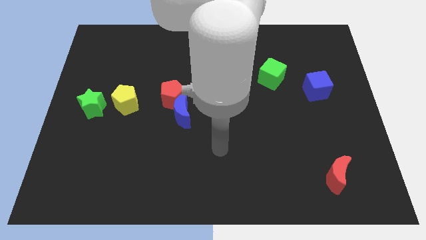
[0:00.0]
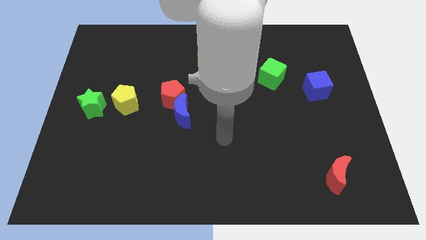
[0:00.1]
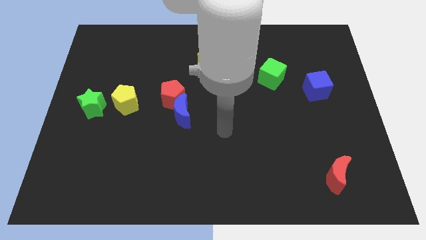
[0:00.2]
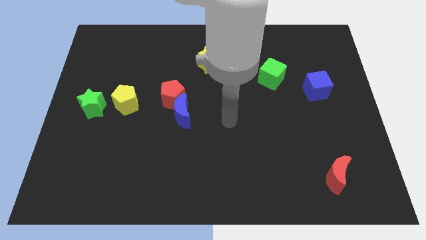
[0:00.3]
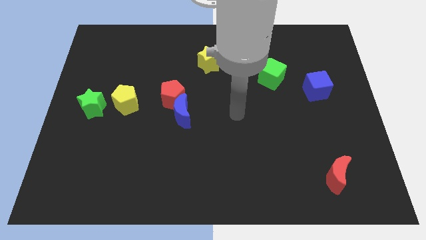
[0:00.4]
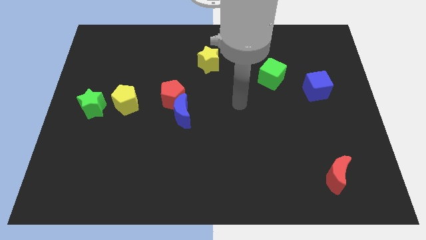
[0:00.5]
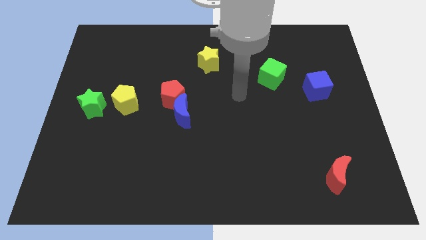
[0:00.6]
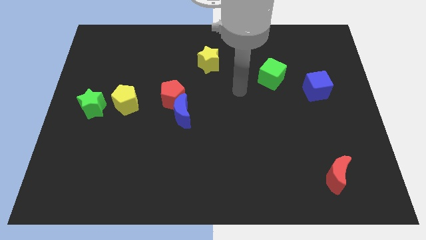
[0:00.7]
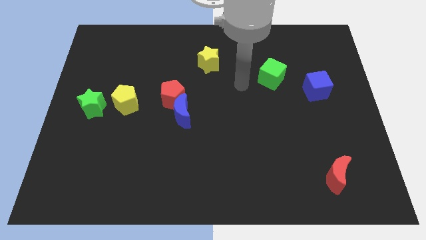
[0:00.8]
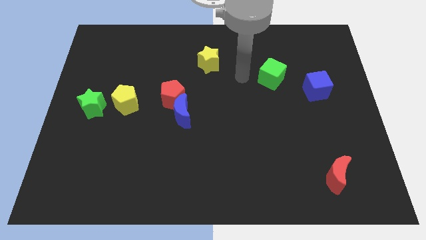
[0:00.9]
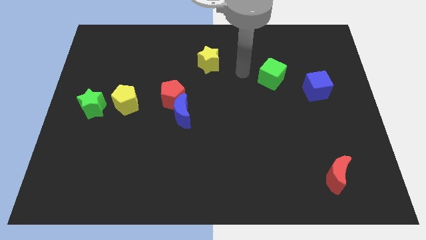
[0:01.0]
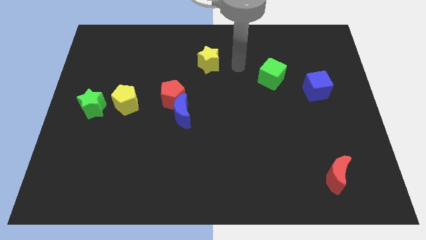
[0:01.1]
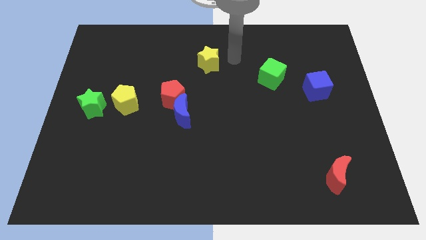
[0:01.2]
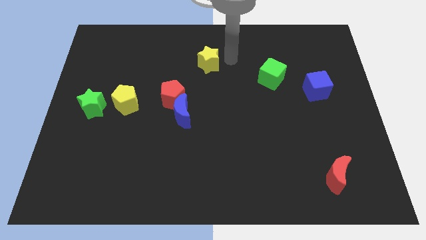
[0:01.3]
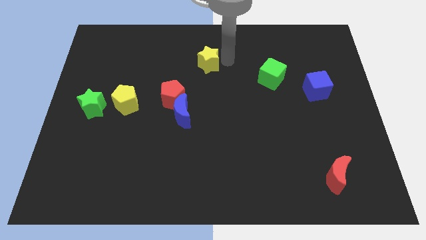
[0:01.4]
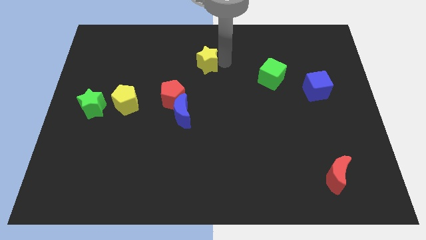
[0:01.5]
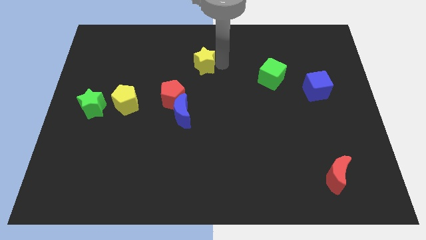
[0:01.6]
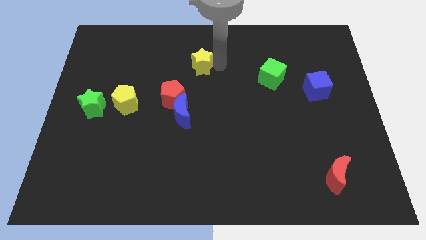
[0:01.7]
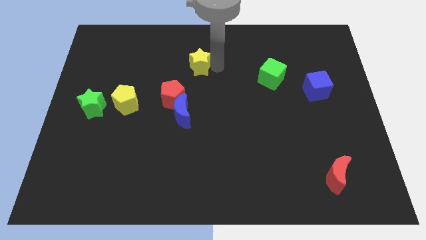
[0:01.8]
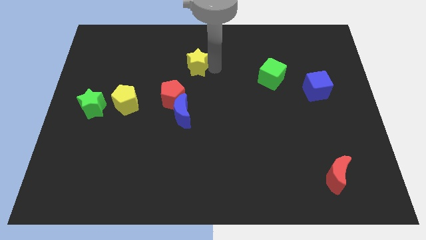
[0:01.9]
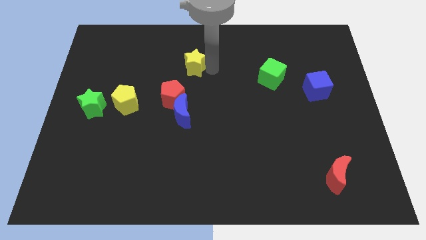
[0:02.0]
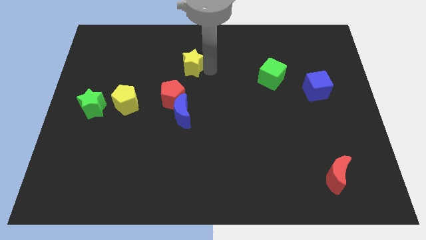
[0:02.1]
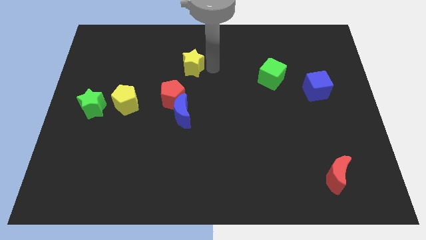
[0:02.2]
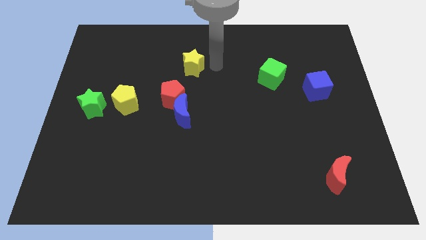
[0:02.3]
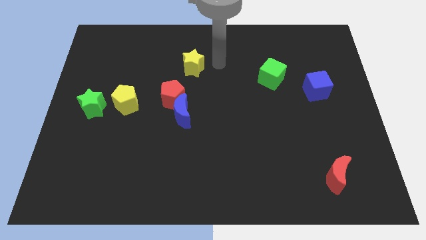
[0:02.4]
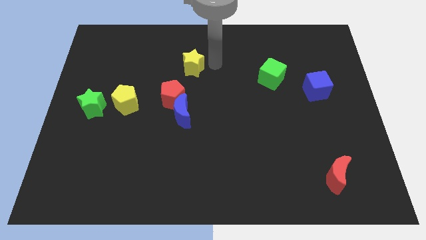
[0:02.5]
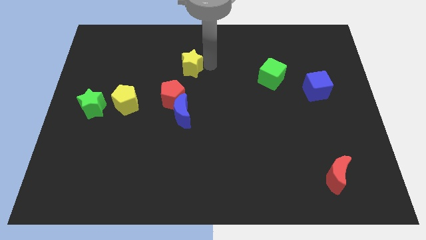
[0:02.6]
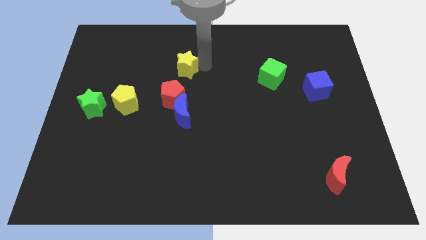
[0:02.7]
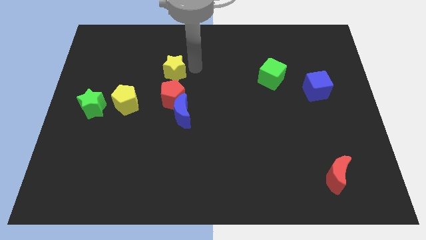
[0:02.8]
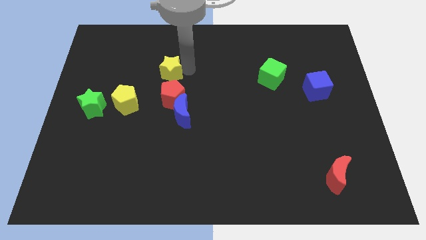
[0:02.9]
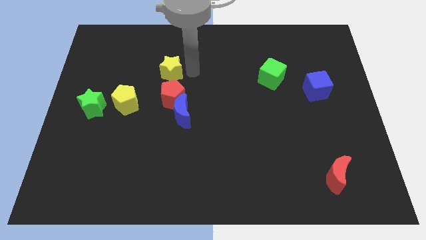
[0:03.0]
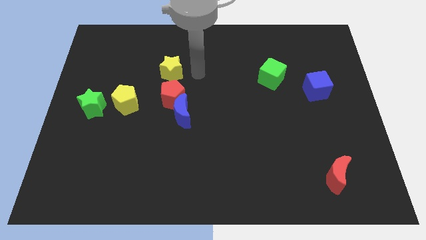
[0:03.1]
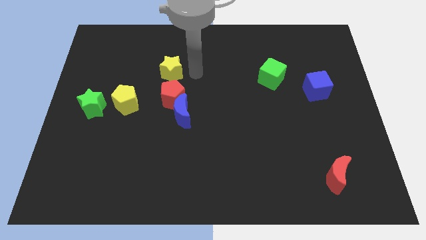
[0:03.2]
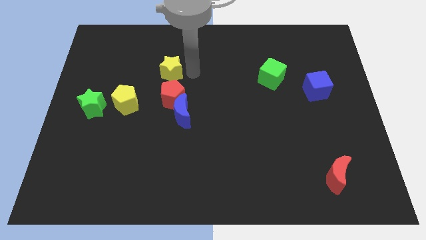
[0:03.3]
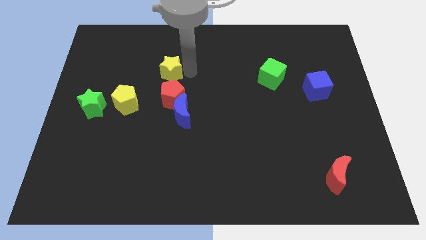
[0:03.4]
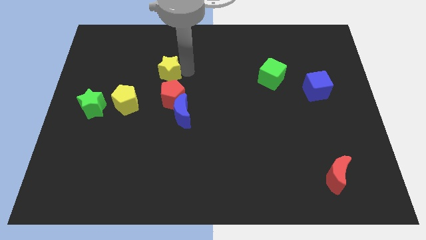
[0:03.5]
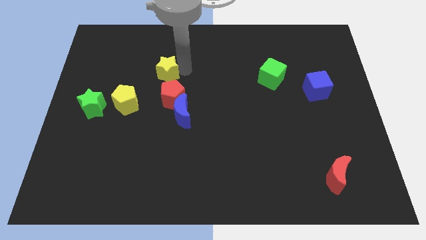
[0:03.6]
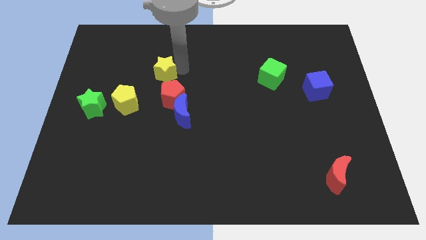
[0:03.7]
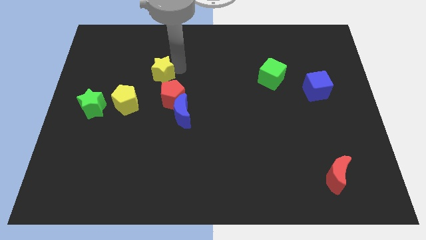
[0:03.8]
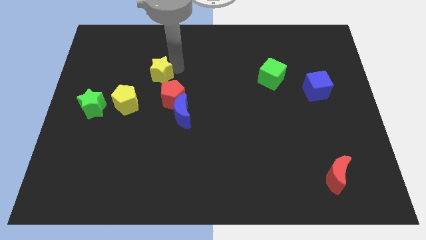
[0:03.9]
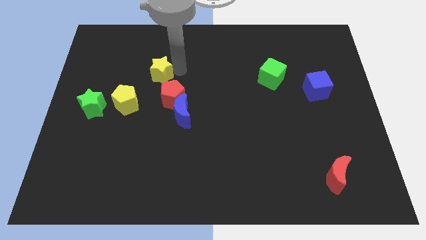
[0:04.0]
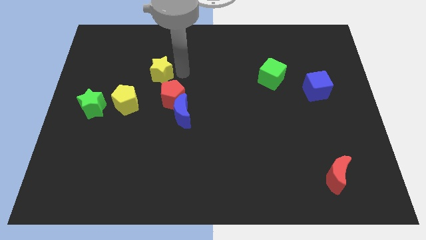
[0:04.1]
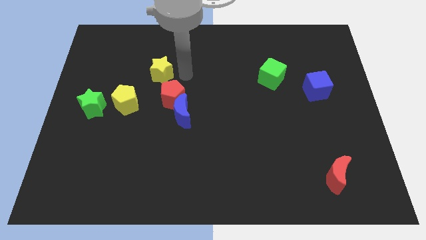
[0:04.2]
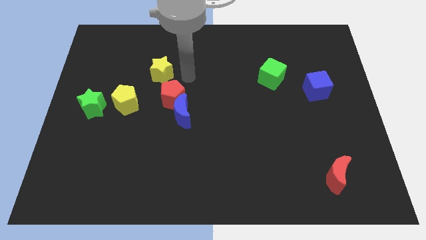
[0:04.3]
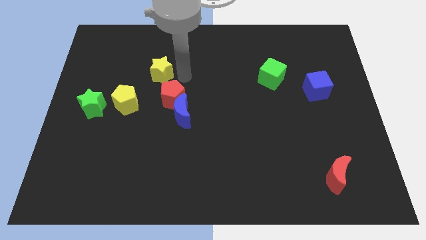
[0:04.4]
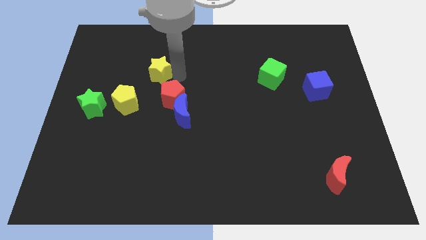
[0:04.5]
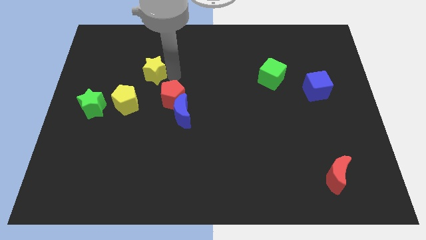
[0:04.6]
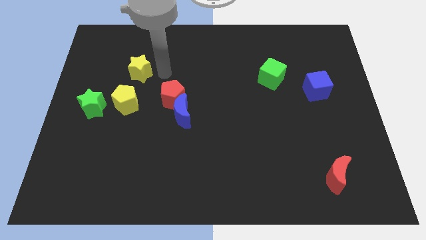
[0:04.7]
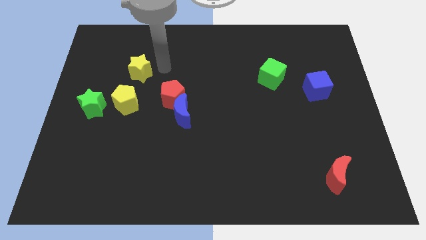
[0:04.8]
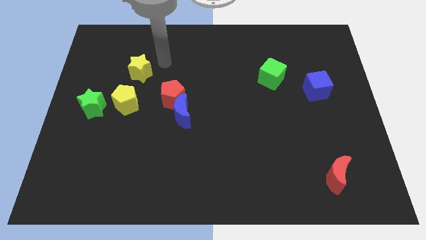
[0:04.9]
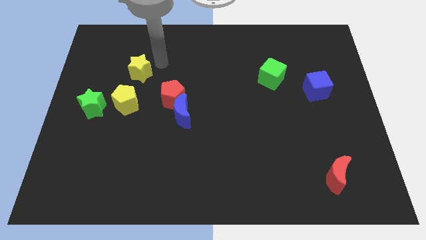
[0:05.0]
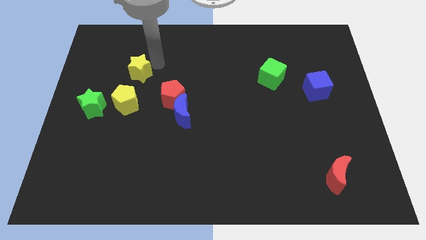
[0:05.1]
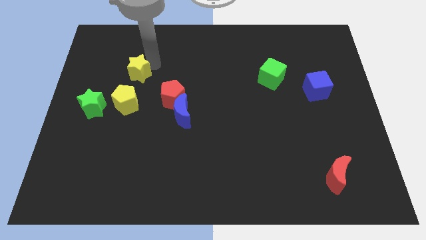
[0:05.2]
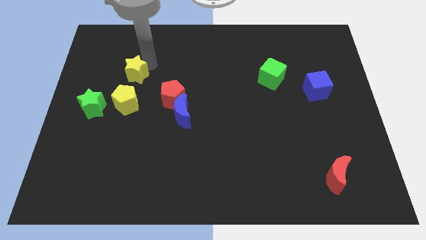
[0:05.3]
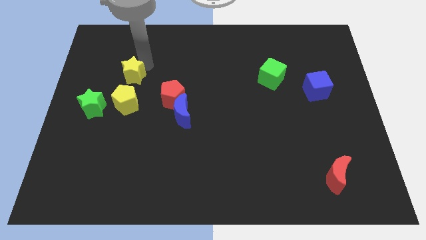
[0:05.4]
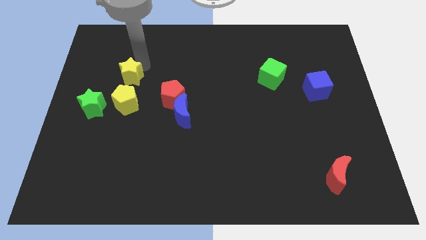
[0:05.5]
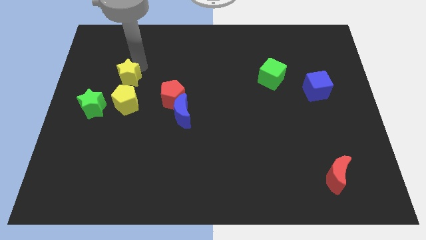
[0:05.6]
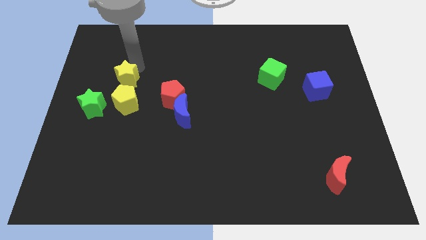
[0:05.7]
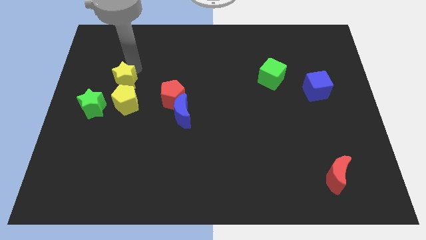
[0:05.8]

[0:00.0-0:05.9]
move the yellow star diagonally up and to the left of the yellow pentagon

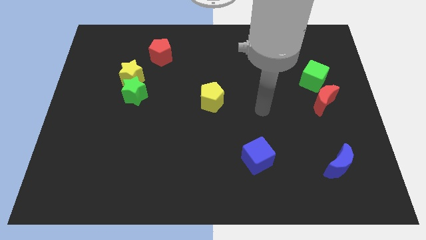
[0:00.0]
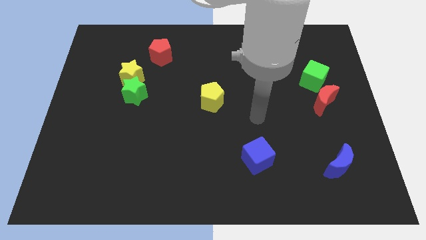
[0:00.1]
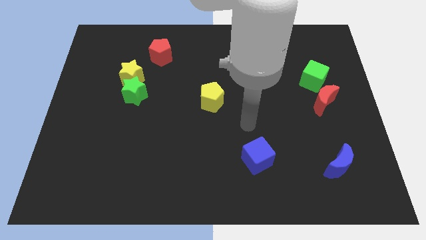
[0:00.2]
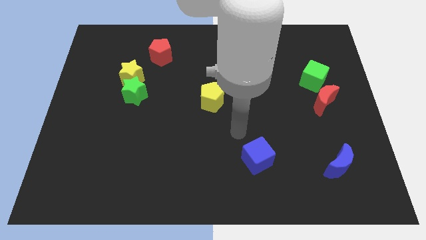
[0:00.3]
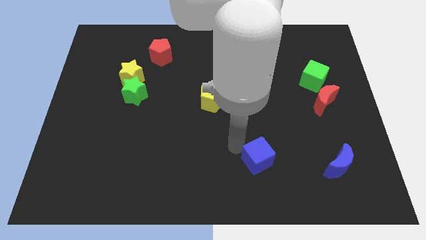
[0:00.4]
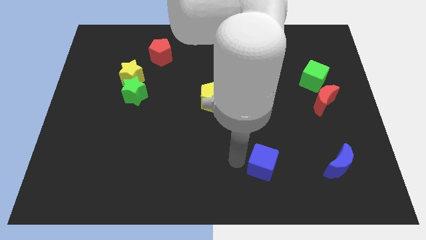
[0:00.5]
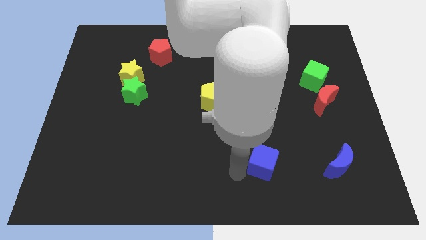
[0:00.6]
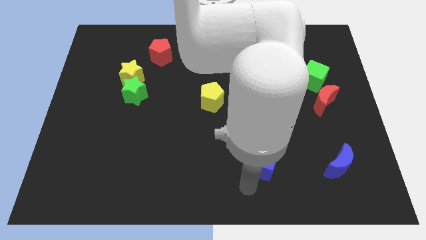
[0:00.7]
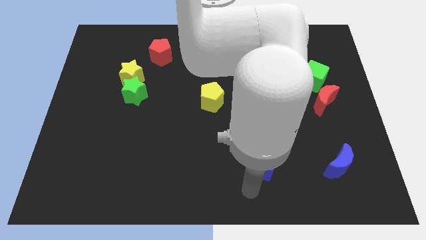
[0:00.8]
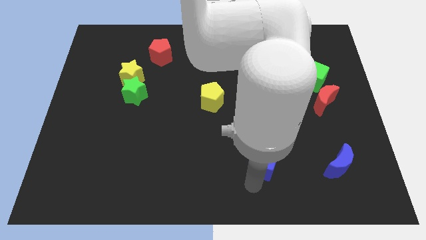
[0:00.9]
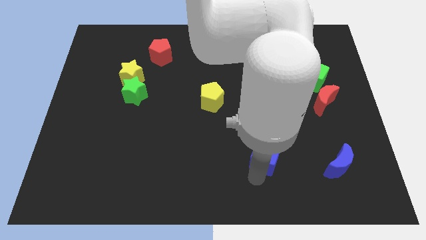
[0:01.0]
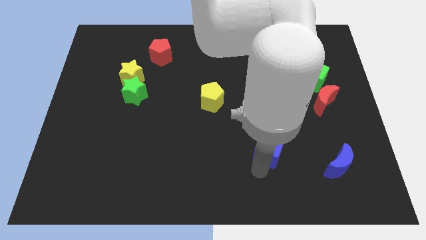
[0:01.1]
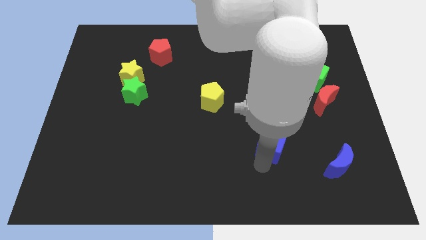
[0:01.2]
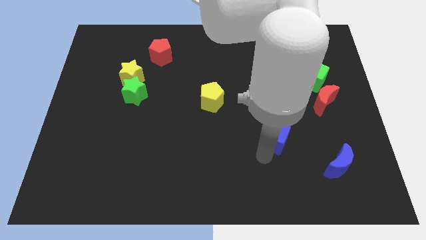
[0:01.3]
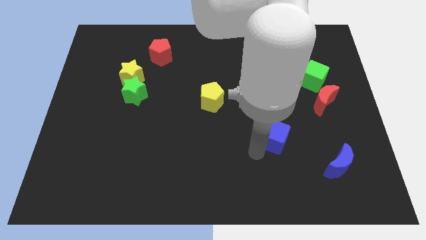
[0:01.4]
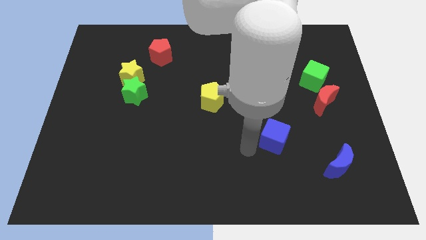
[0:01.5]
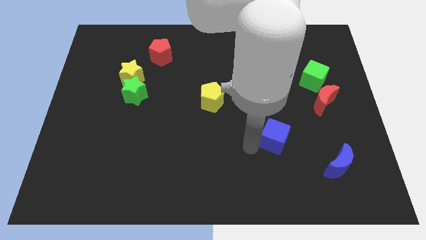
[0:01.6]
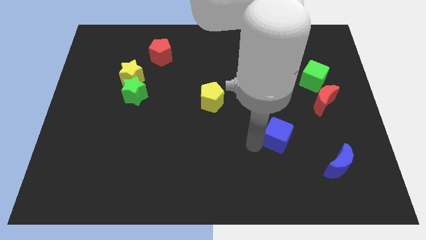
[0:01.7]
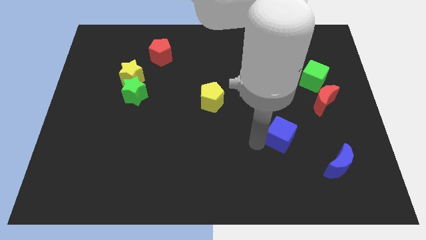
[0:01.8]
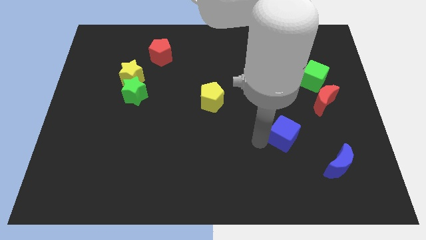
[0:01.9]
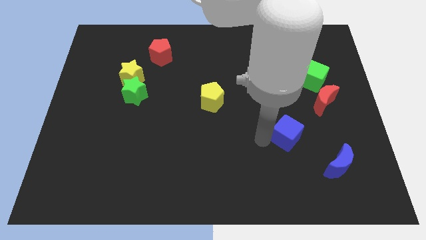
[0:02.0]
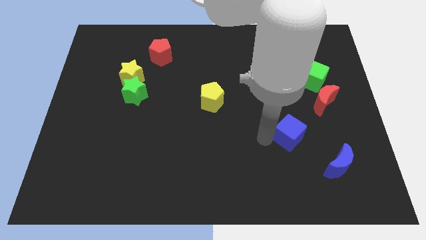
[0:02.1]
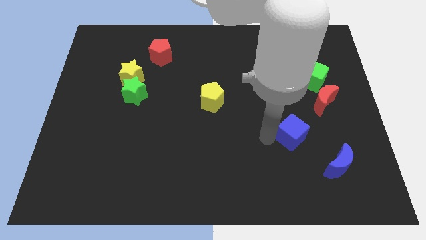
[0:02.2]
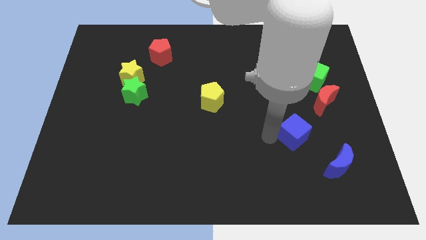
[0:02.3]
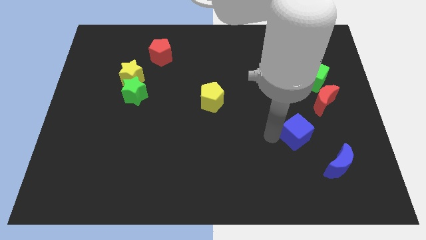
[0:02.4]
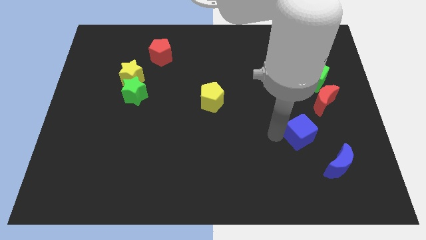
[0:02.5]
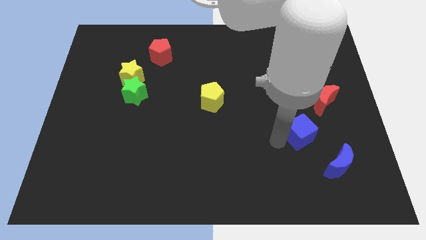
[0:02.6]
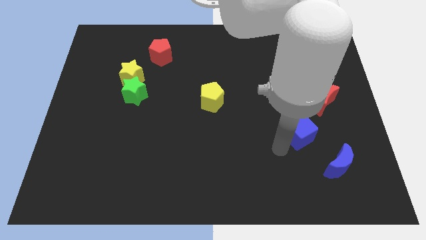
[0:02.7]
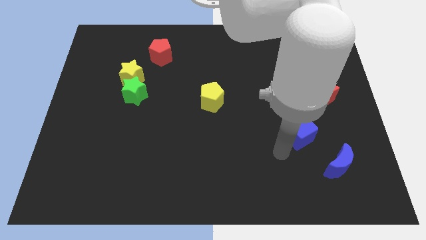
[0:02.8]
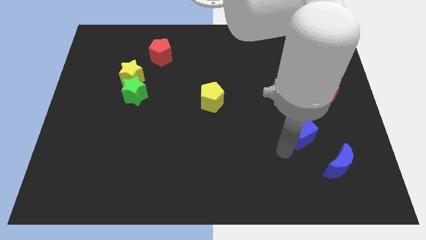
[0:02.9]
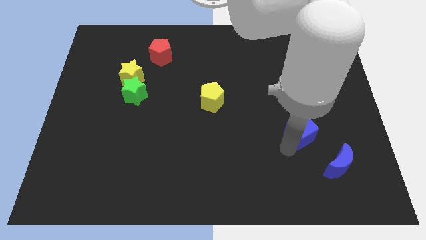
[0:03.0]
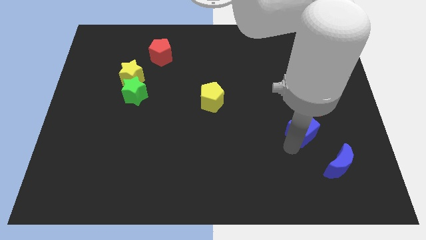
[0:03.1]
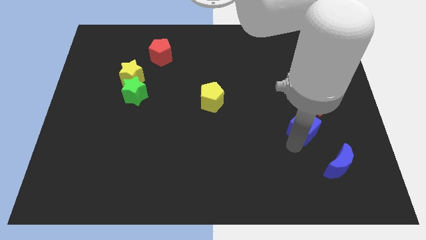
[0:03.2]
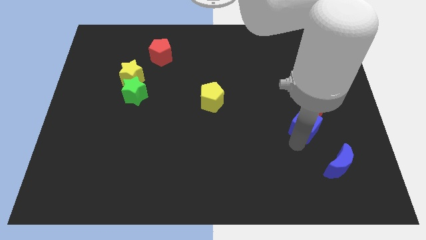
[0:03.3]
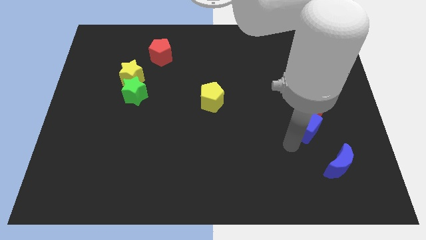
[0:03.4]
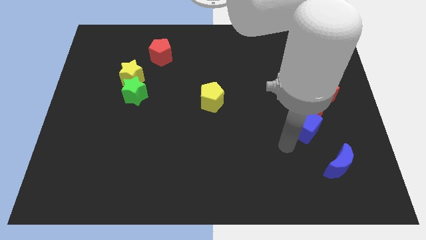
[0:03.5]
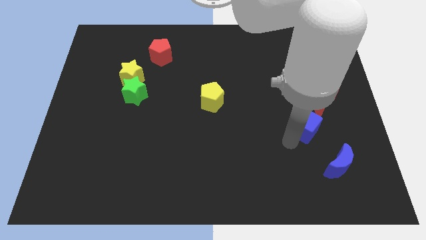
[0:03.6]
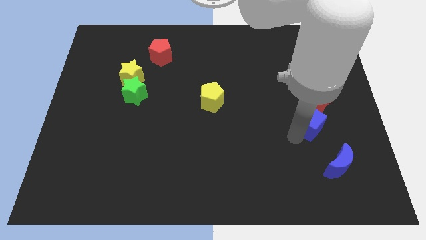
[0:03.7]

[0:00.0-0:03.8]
move the blue cube below the green cube
